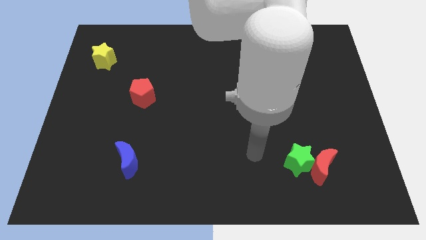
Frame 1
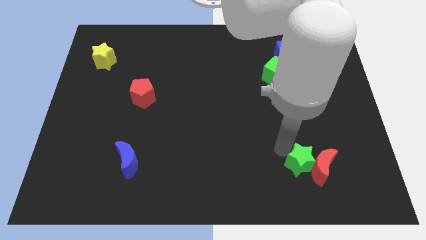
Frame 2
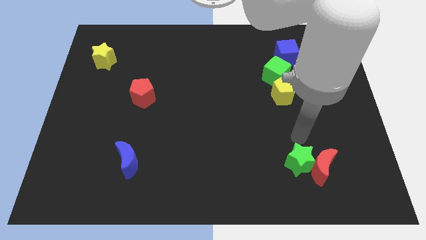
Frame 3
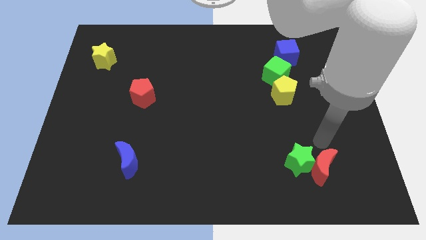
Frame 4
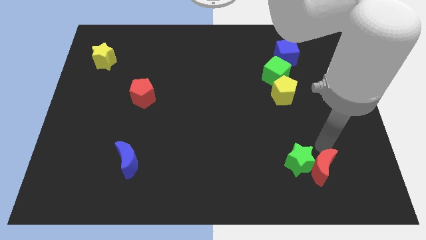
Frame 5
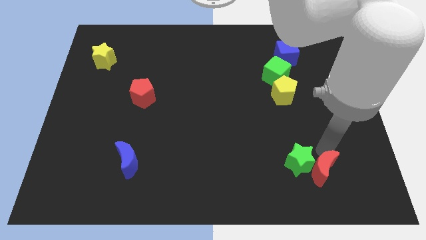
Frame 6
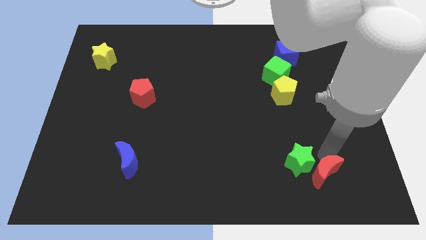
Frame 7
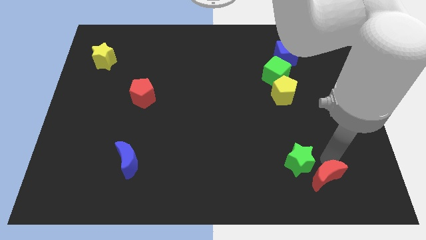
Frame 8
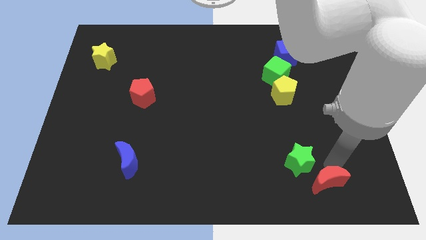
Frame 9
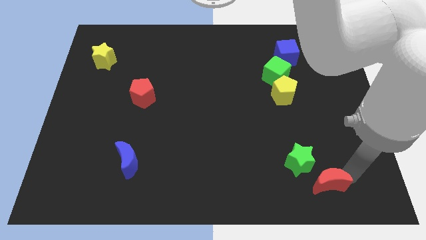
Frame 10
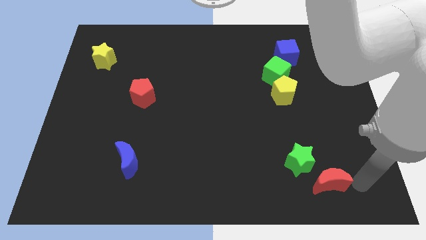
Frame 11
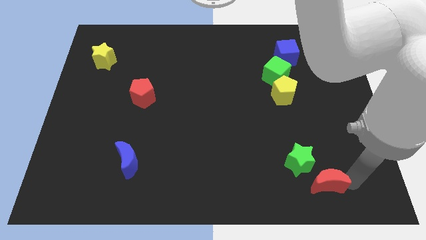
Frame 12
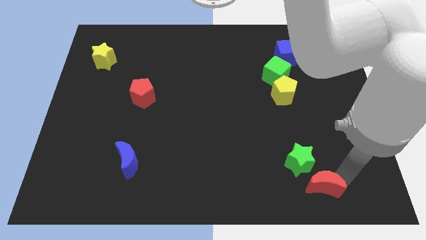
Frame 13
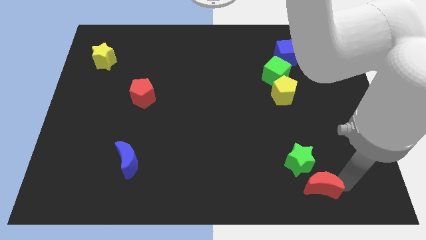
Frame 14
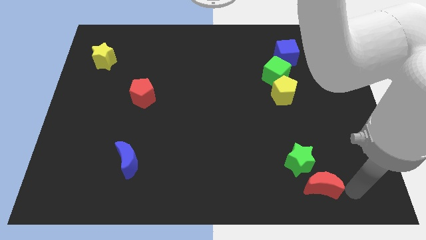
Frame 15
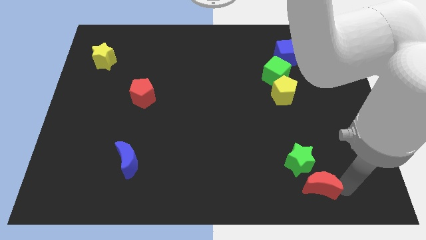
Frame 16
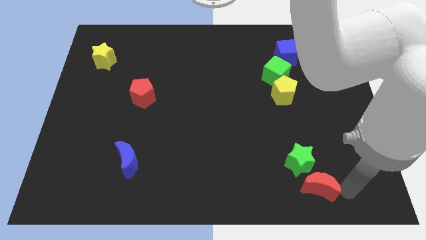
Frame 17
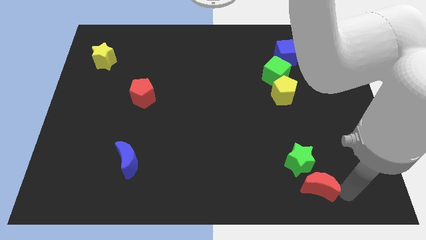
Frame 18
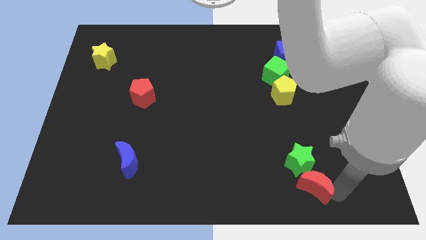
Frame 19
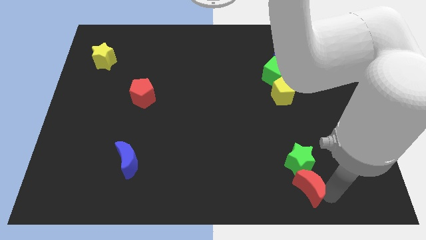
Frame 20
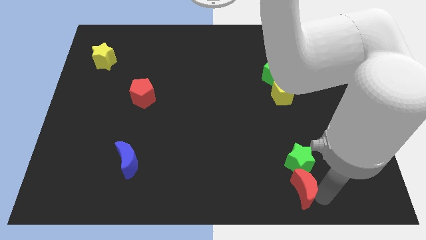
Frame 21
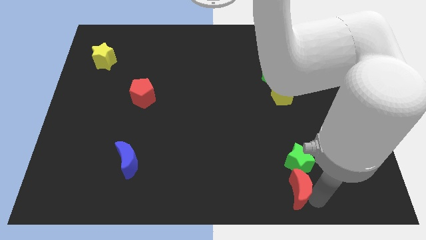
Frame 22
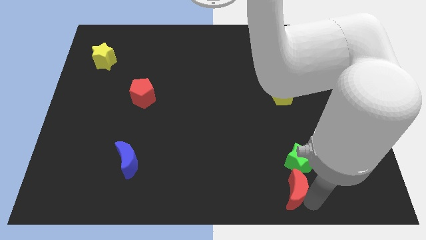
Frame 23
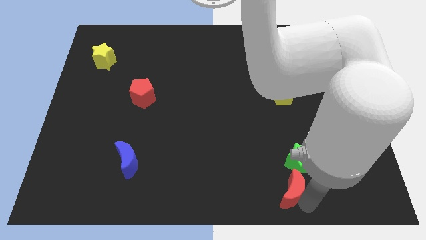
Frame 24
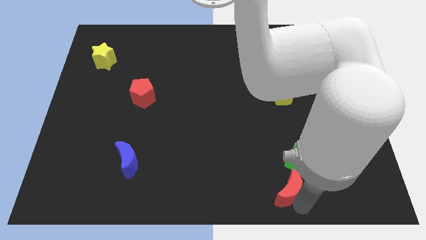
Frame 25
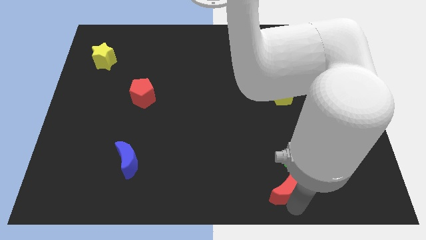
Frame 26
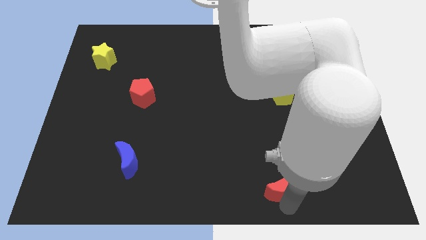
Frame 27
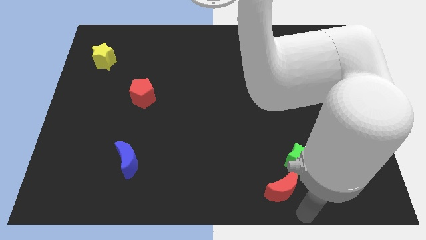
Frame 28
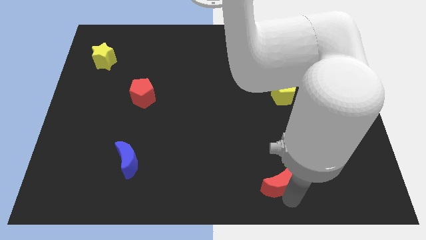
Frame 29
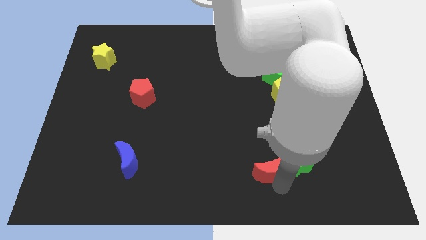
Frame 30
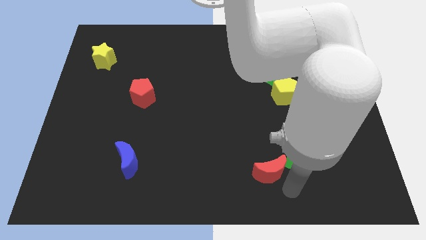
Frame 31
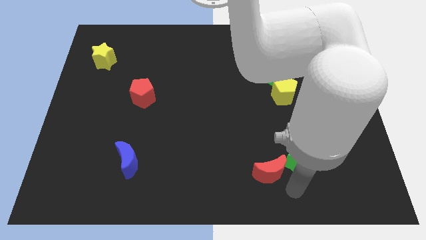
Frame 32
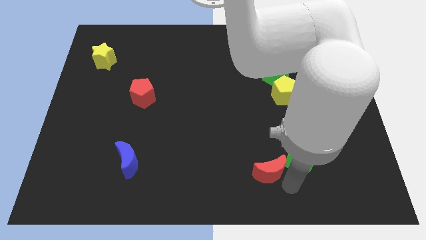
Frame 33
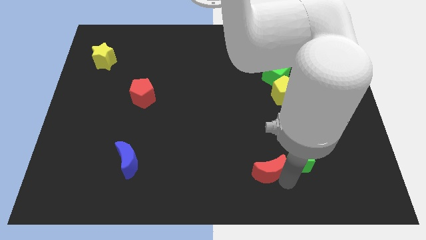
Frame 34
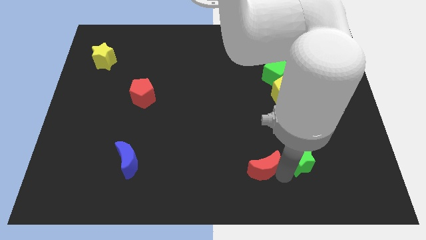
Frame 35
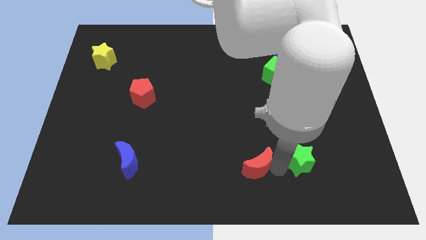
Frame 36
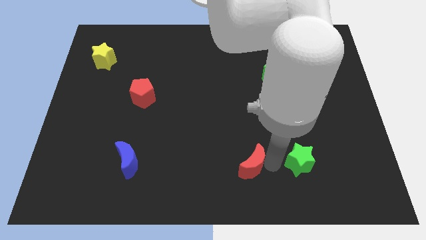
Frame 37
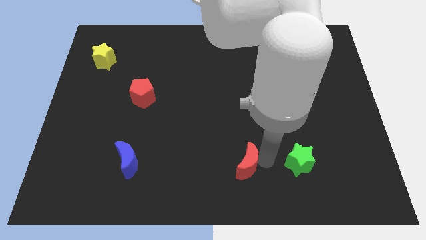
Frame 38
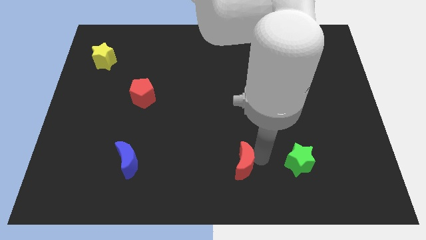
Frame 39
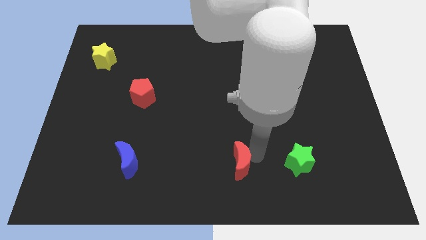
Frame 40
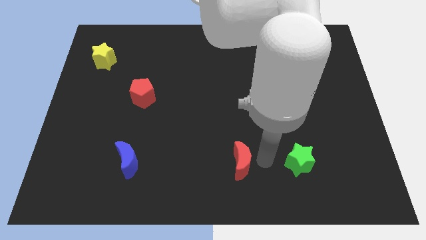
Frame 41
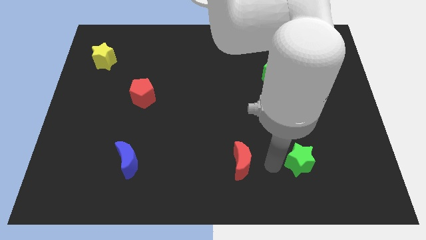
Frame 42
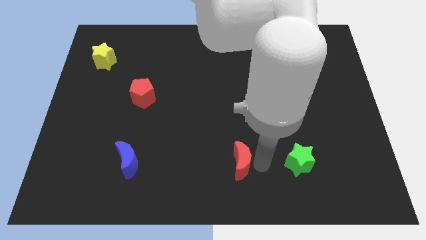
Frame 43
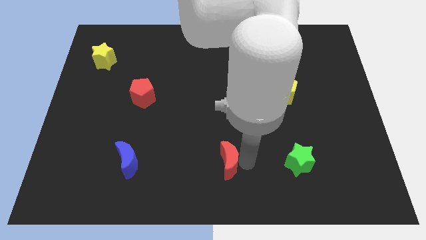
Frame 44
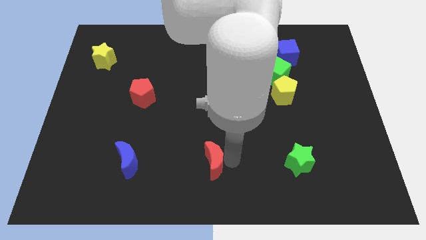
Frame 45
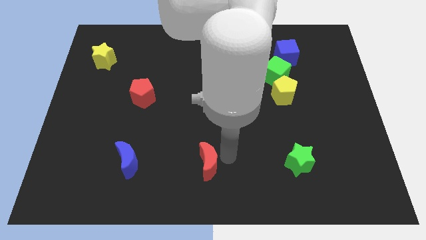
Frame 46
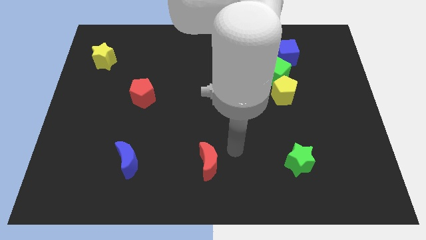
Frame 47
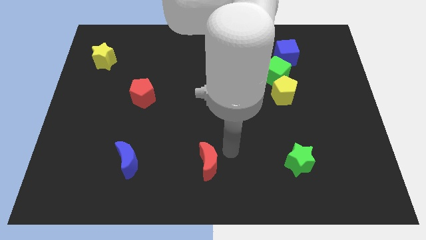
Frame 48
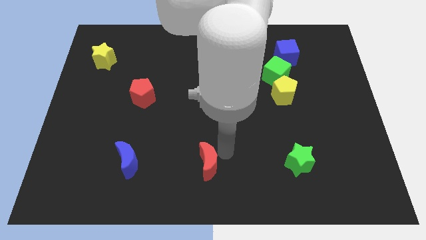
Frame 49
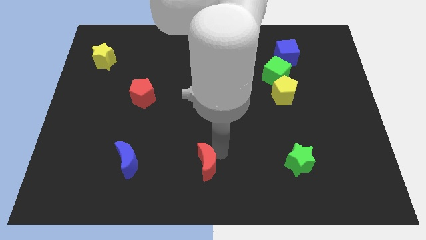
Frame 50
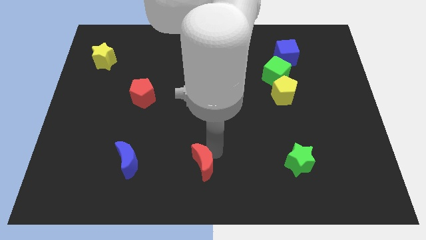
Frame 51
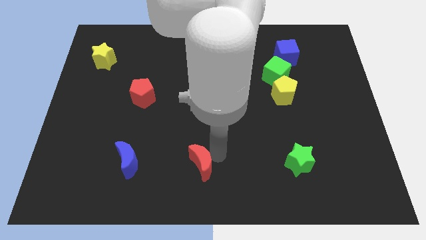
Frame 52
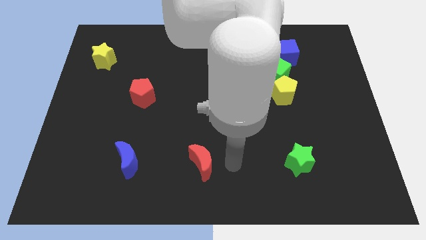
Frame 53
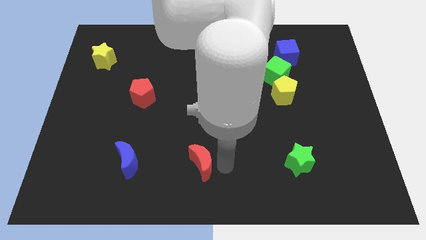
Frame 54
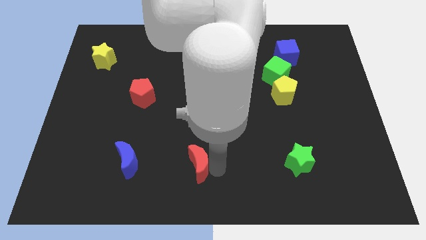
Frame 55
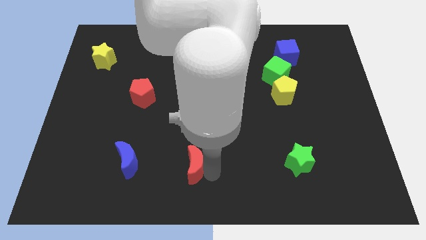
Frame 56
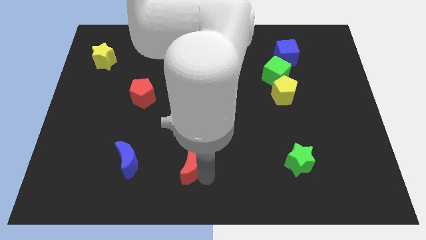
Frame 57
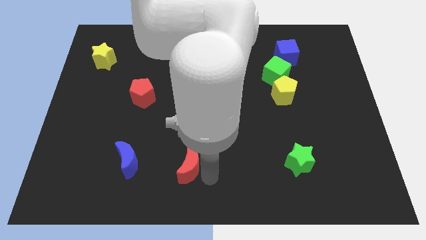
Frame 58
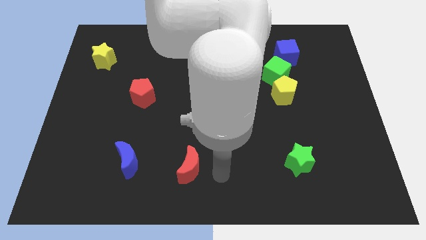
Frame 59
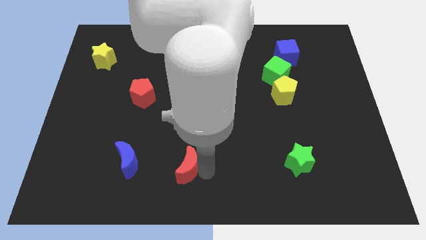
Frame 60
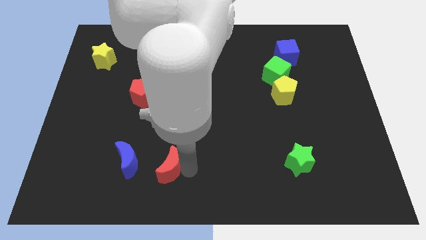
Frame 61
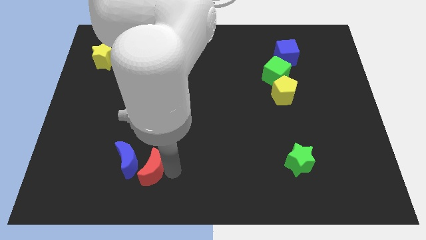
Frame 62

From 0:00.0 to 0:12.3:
move the red moon next to the blue moon
